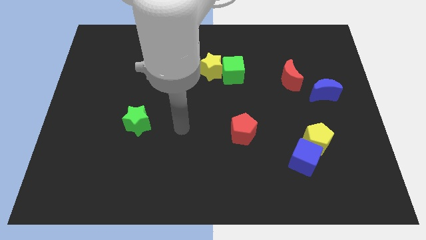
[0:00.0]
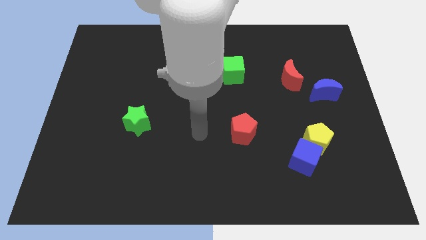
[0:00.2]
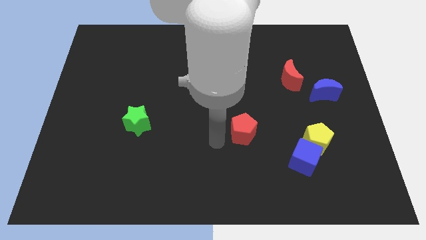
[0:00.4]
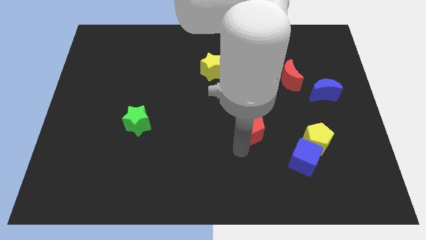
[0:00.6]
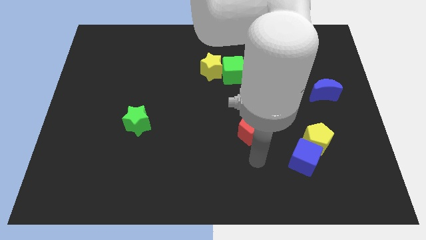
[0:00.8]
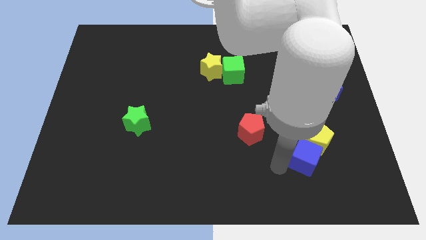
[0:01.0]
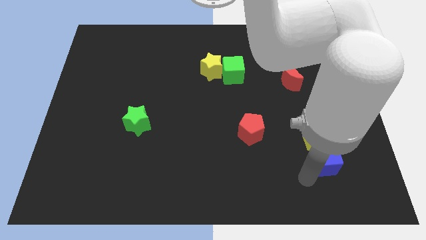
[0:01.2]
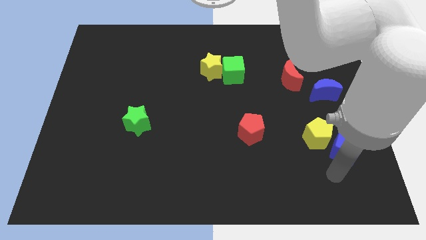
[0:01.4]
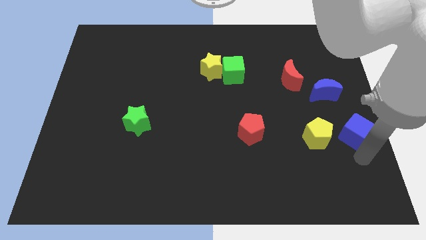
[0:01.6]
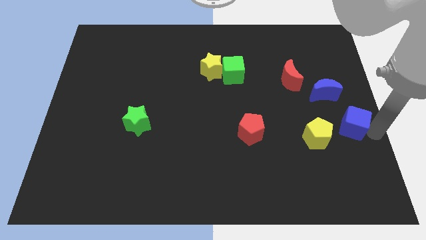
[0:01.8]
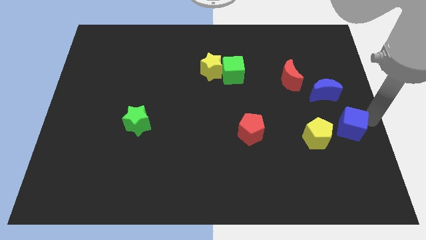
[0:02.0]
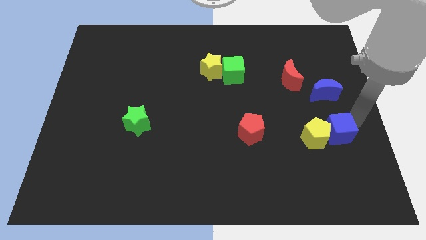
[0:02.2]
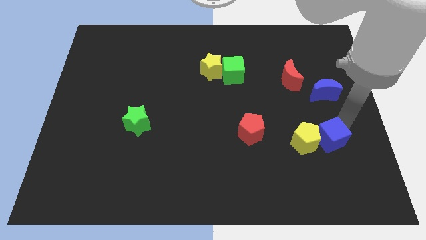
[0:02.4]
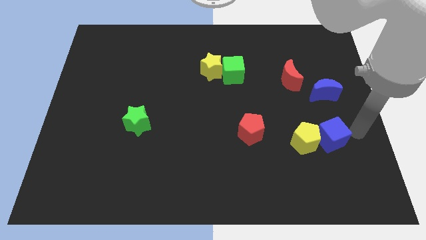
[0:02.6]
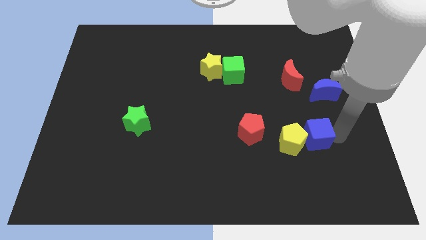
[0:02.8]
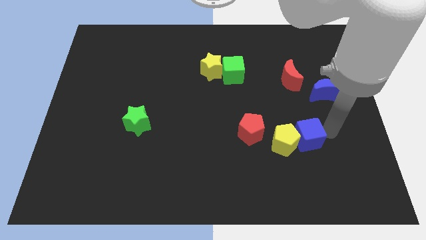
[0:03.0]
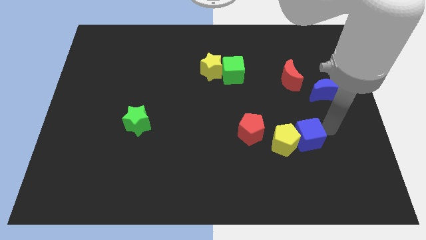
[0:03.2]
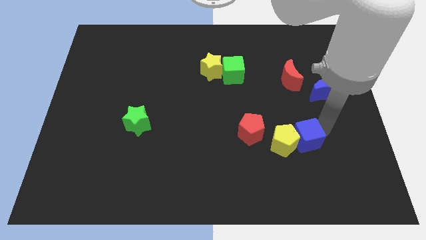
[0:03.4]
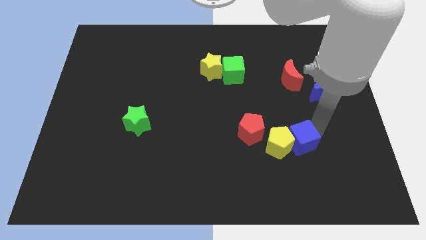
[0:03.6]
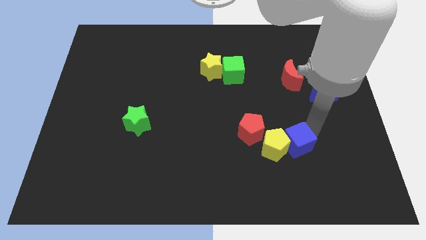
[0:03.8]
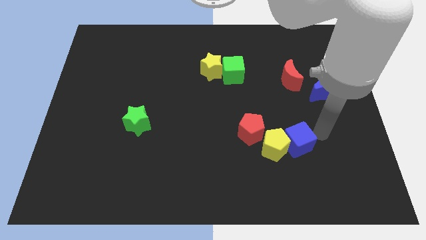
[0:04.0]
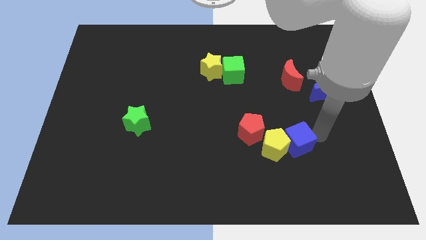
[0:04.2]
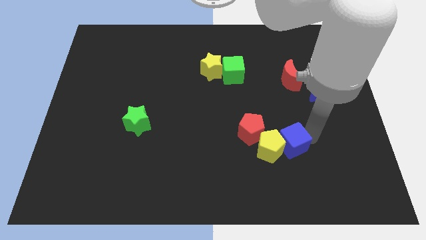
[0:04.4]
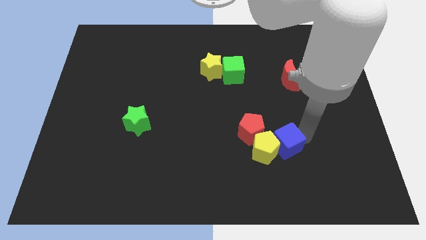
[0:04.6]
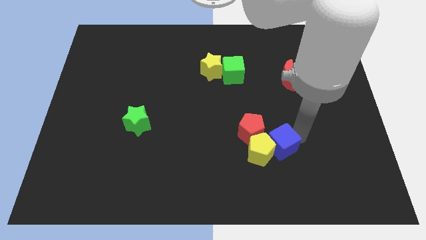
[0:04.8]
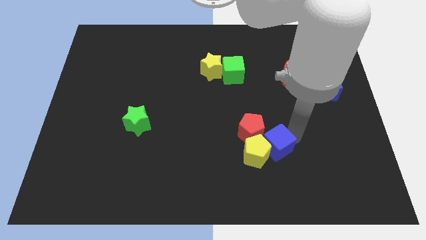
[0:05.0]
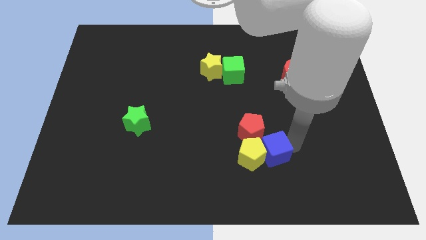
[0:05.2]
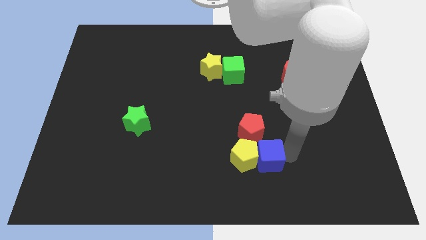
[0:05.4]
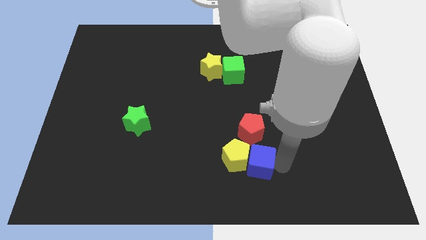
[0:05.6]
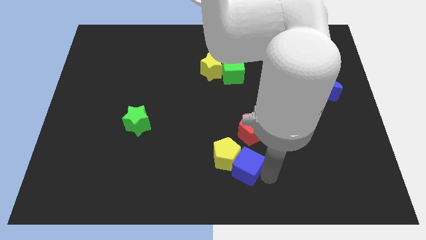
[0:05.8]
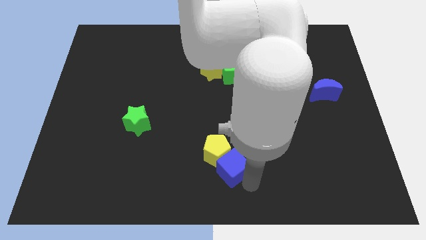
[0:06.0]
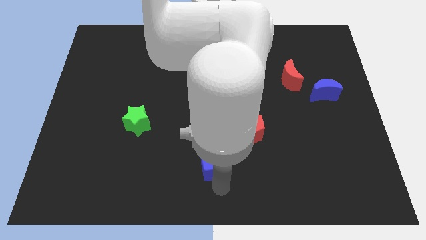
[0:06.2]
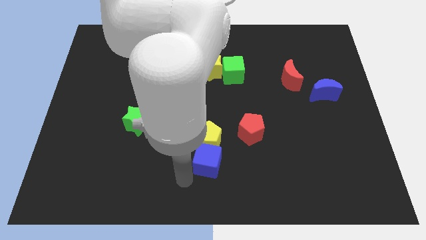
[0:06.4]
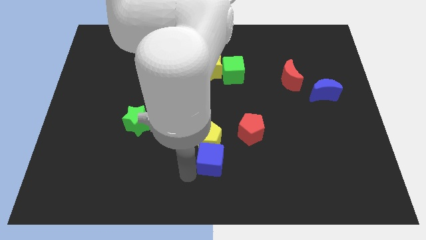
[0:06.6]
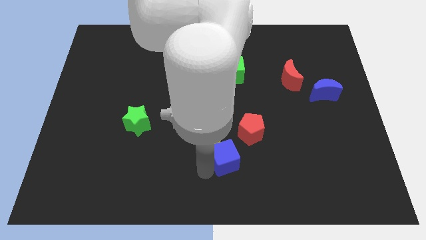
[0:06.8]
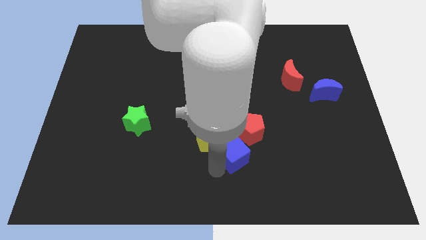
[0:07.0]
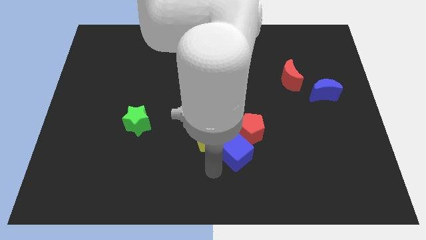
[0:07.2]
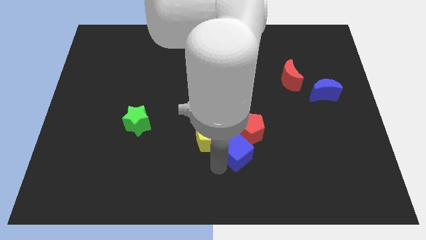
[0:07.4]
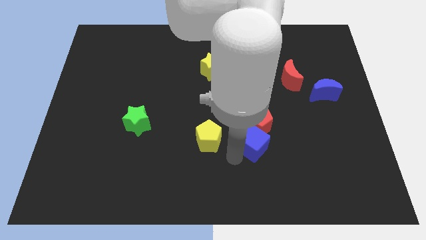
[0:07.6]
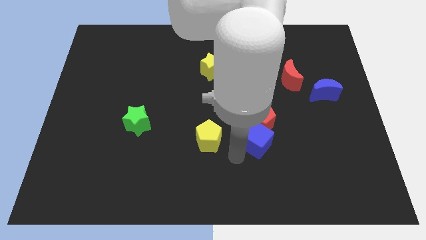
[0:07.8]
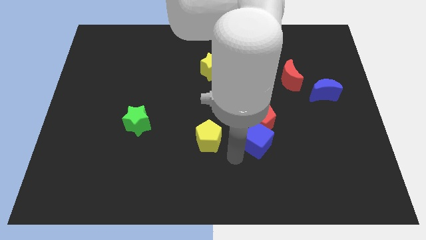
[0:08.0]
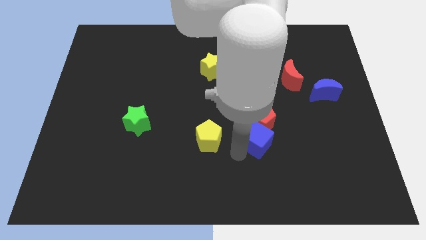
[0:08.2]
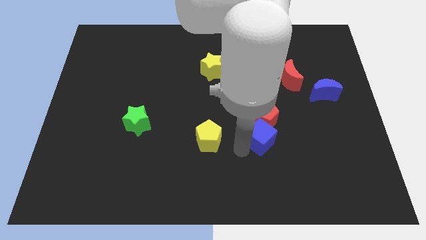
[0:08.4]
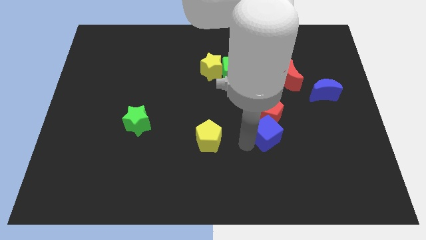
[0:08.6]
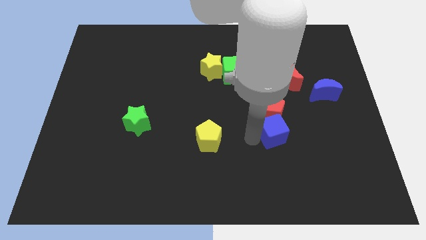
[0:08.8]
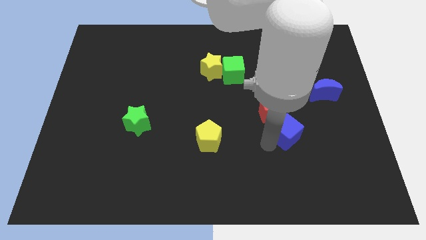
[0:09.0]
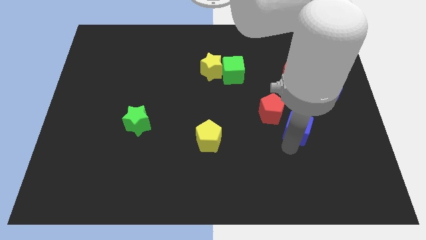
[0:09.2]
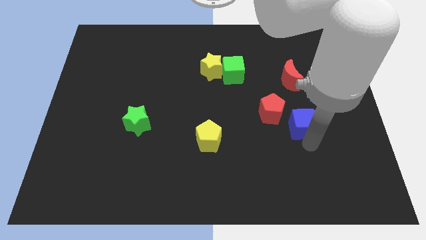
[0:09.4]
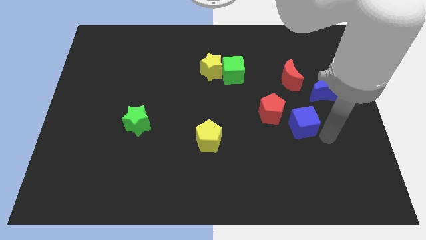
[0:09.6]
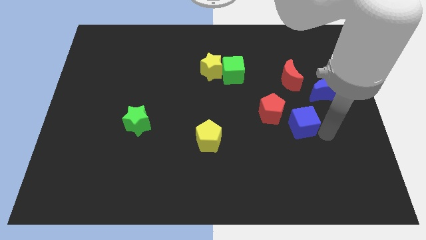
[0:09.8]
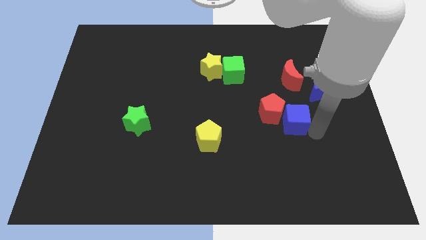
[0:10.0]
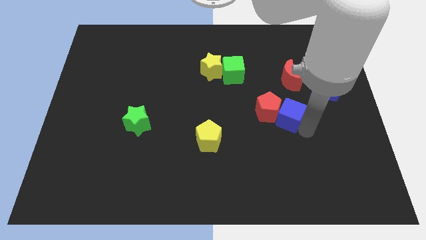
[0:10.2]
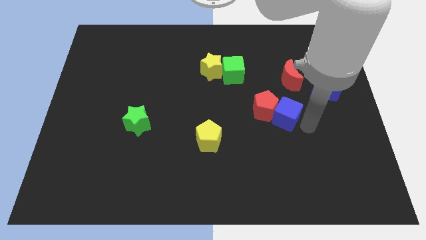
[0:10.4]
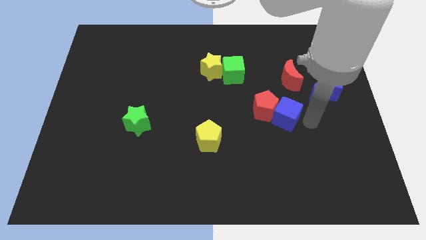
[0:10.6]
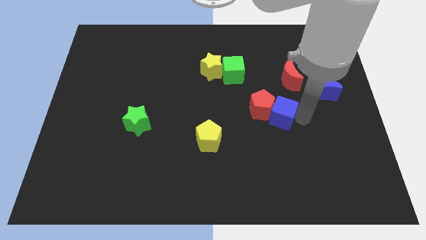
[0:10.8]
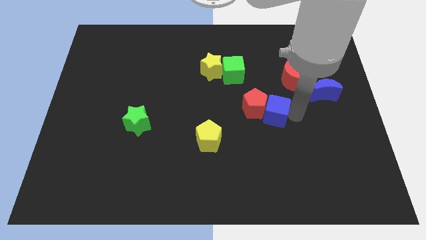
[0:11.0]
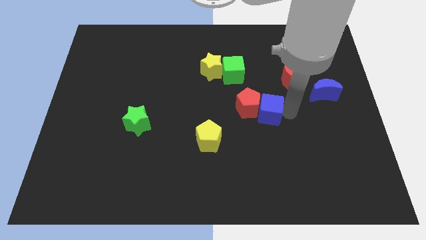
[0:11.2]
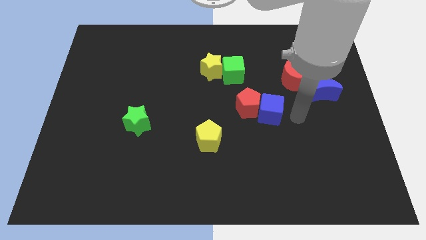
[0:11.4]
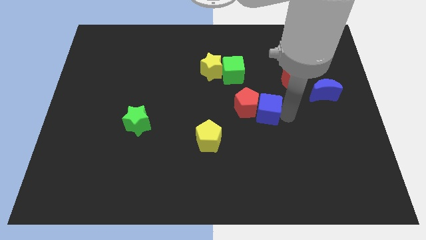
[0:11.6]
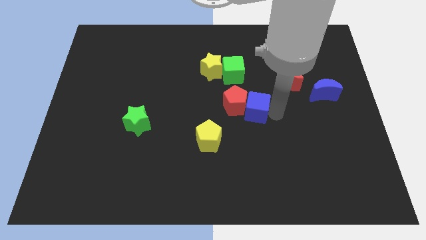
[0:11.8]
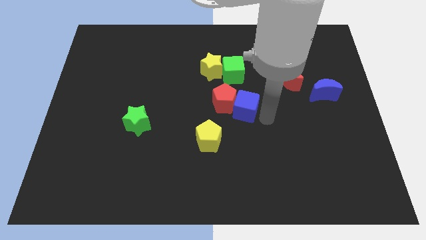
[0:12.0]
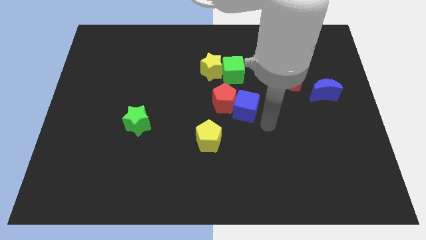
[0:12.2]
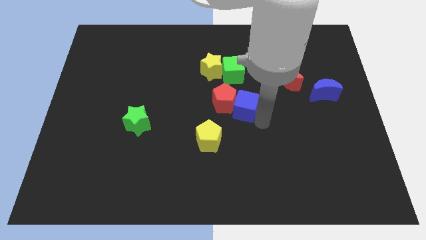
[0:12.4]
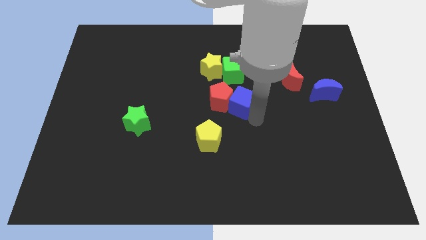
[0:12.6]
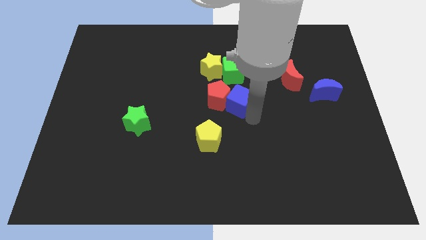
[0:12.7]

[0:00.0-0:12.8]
slide the blue cube diagonally upwards and left

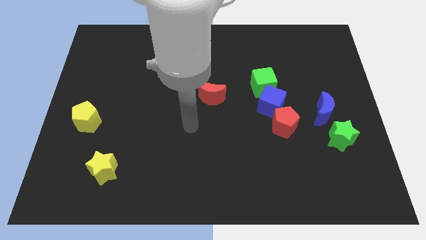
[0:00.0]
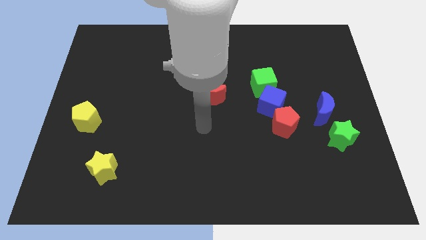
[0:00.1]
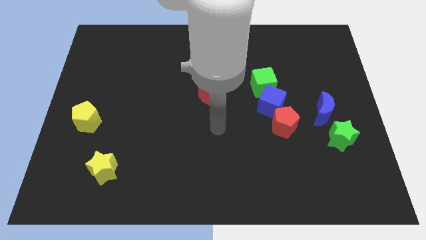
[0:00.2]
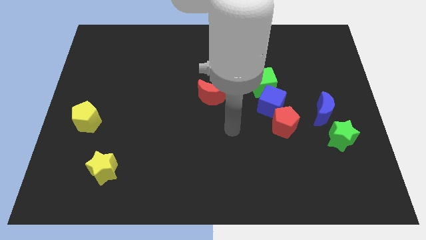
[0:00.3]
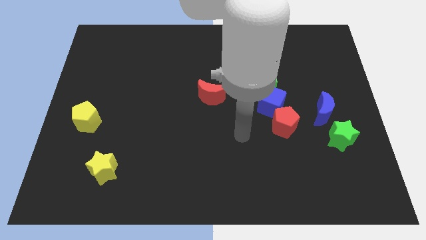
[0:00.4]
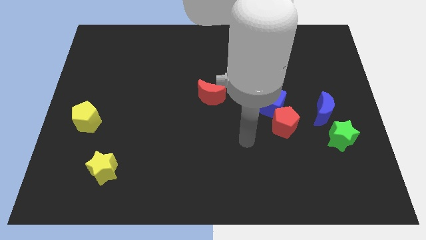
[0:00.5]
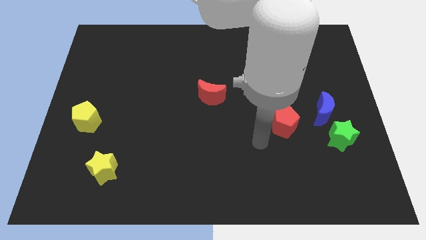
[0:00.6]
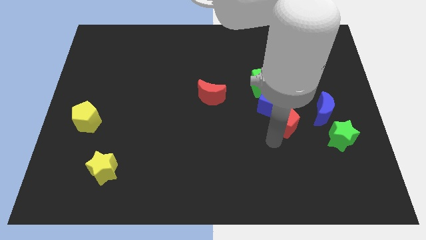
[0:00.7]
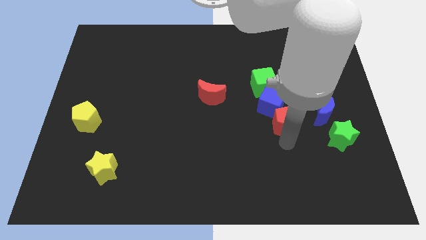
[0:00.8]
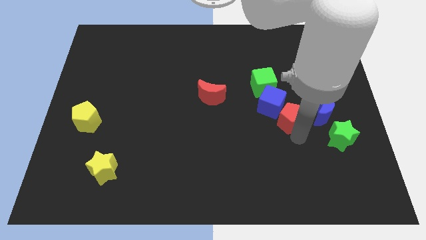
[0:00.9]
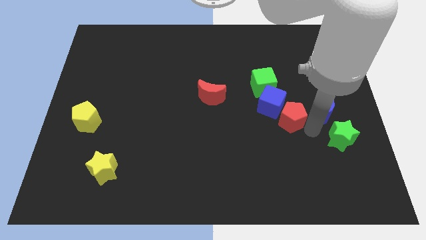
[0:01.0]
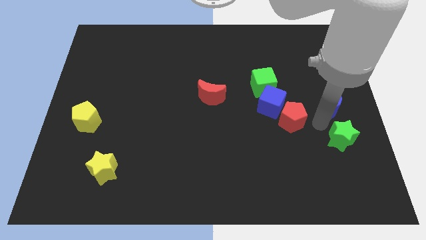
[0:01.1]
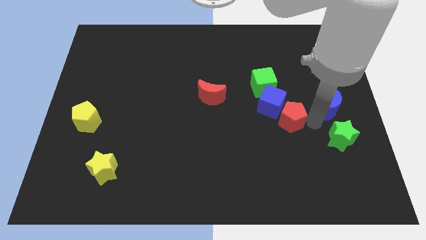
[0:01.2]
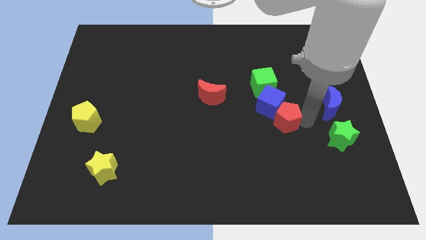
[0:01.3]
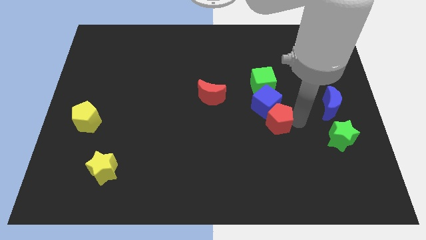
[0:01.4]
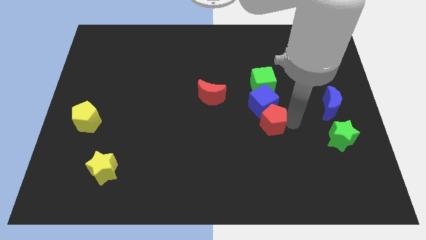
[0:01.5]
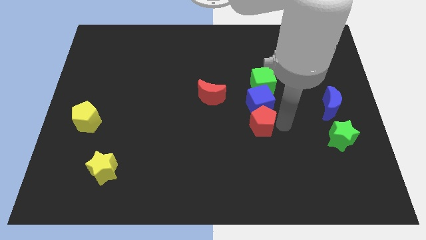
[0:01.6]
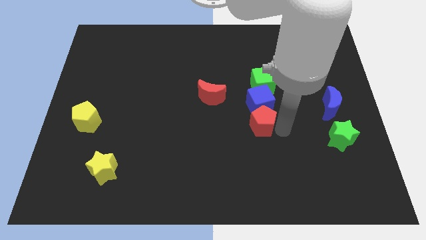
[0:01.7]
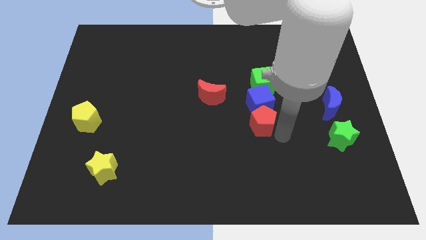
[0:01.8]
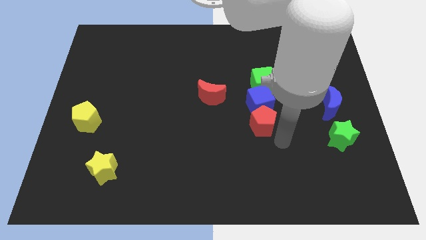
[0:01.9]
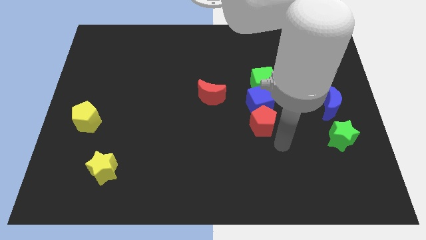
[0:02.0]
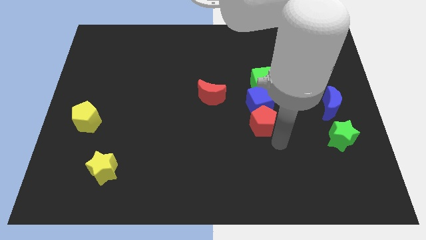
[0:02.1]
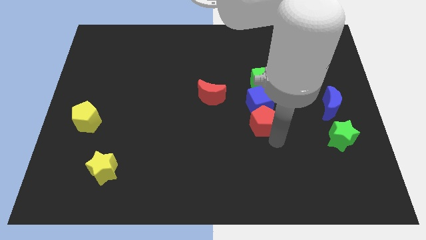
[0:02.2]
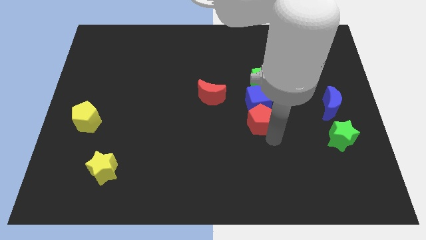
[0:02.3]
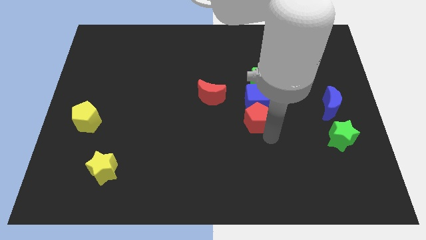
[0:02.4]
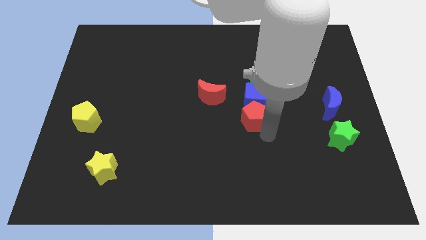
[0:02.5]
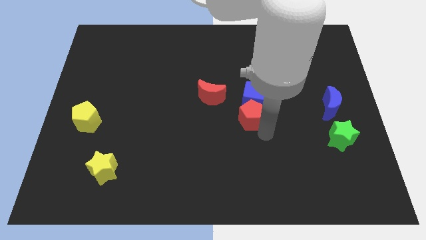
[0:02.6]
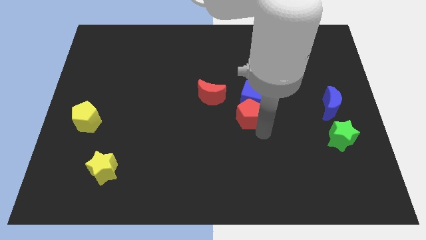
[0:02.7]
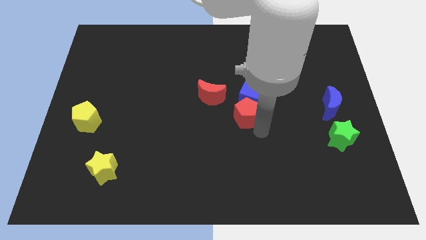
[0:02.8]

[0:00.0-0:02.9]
slightly slide the red pentagon upwards and to the left diagonally
